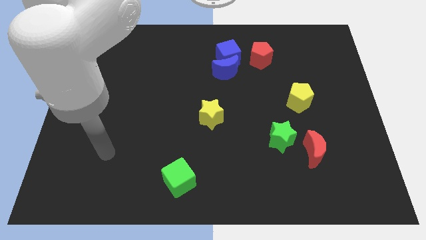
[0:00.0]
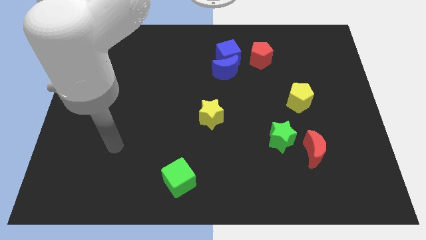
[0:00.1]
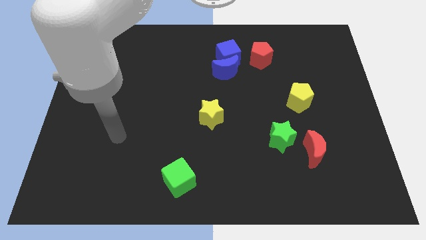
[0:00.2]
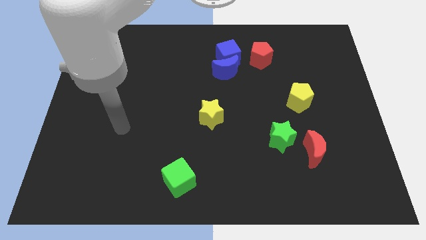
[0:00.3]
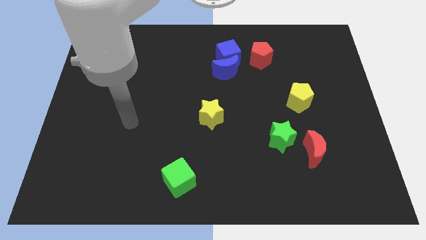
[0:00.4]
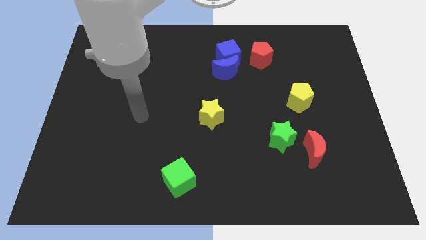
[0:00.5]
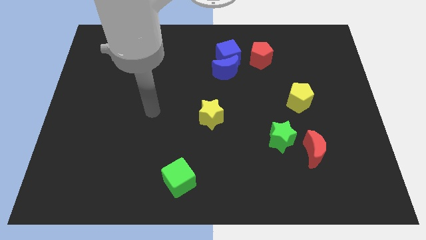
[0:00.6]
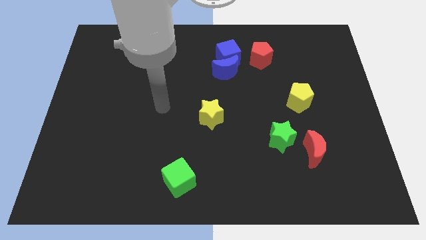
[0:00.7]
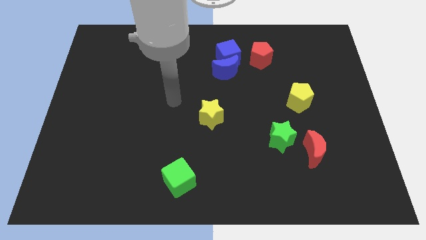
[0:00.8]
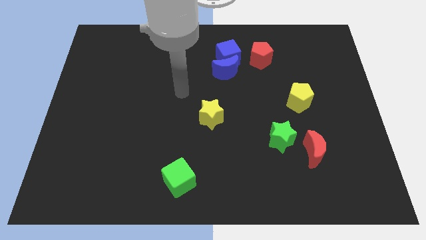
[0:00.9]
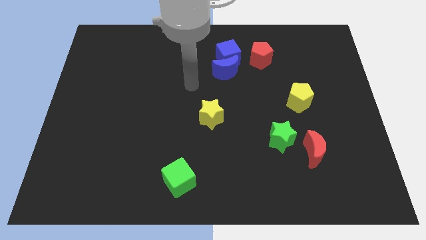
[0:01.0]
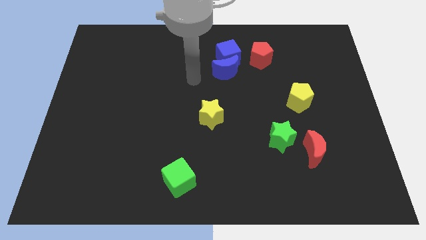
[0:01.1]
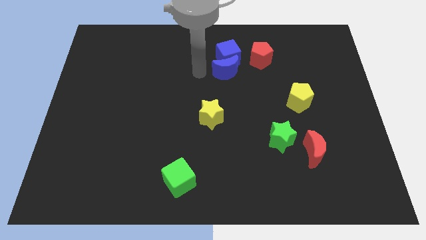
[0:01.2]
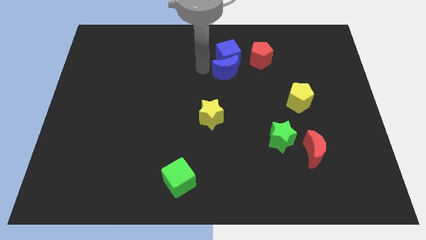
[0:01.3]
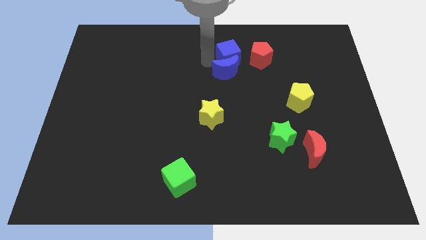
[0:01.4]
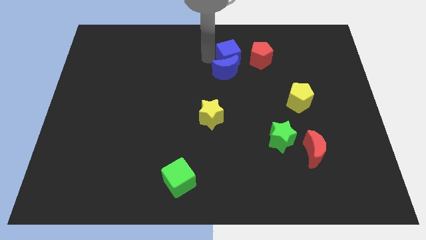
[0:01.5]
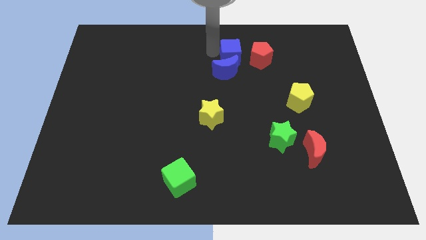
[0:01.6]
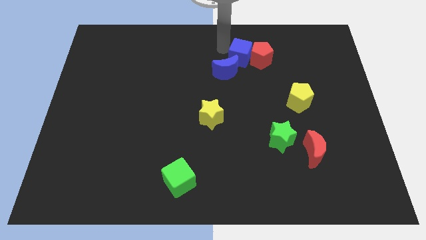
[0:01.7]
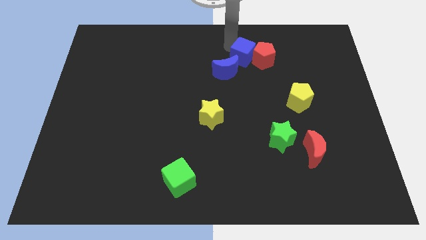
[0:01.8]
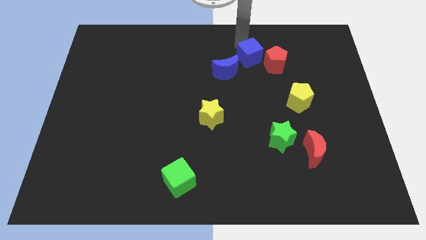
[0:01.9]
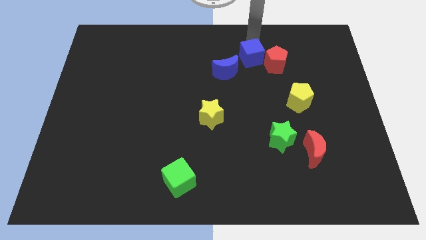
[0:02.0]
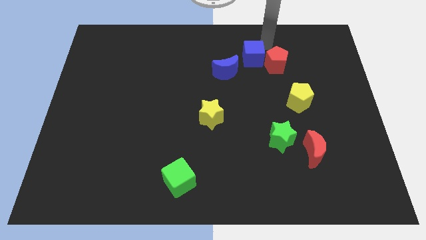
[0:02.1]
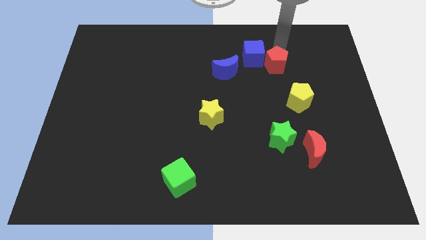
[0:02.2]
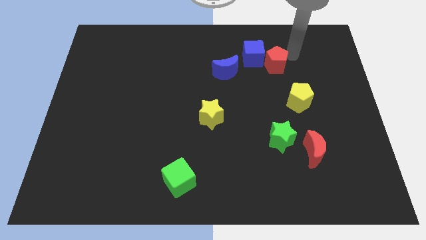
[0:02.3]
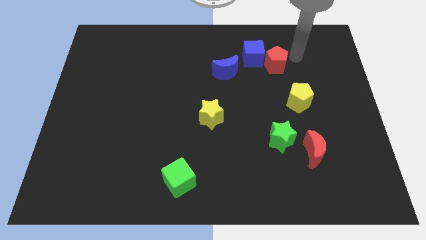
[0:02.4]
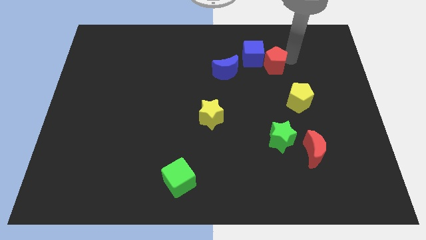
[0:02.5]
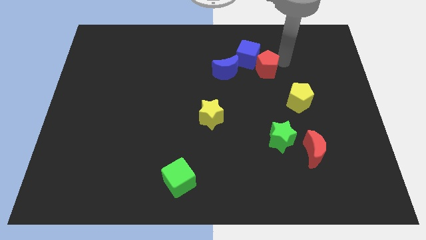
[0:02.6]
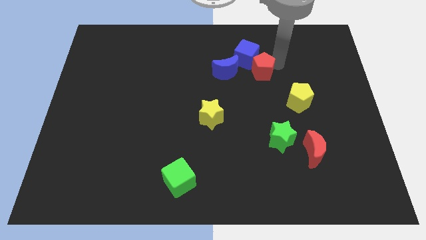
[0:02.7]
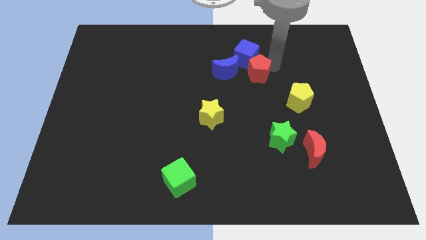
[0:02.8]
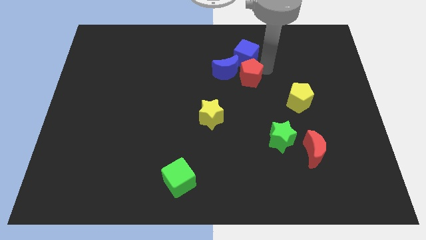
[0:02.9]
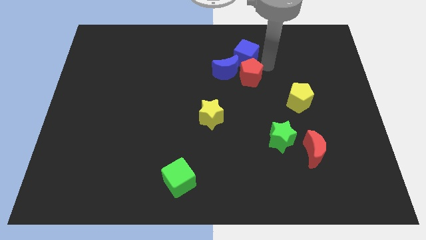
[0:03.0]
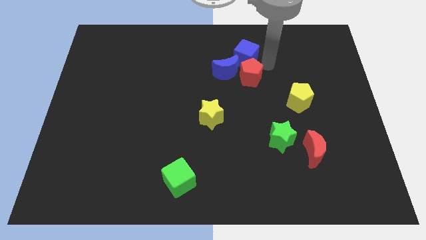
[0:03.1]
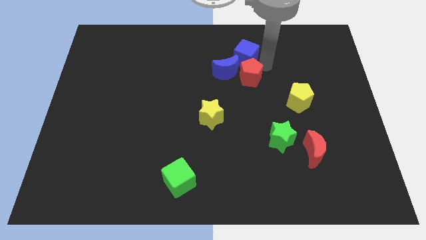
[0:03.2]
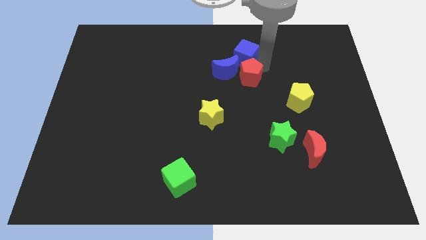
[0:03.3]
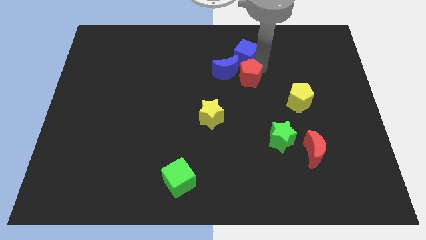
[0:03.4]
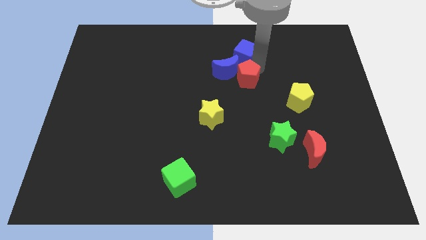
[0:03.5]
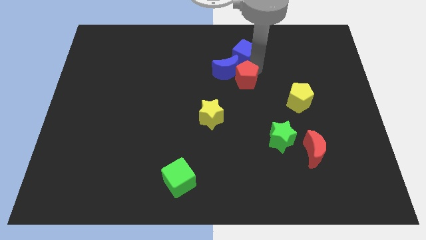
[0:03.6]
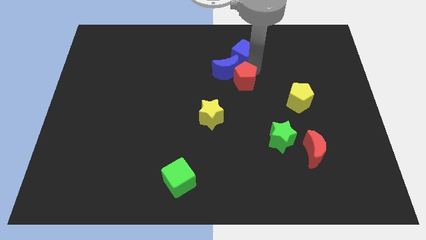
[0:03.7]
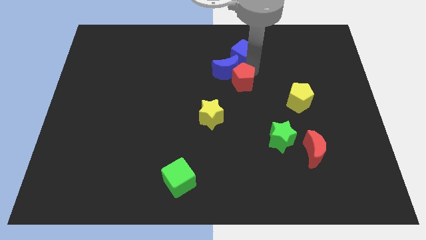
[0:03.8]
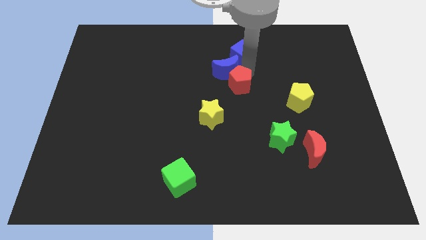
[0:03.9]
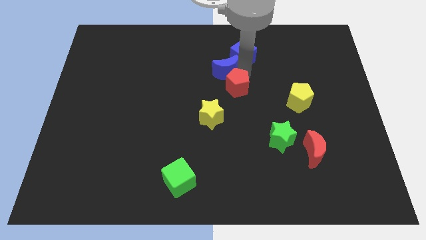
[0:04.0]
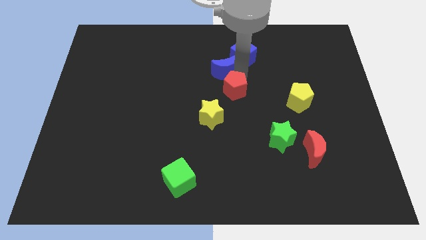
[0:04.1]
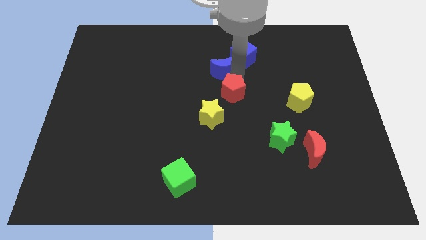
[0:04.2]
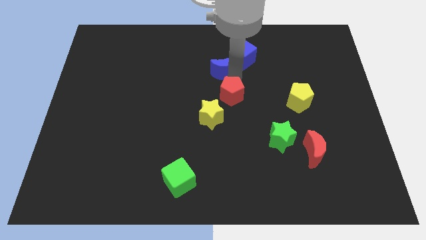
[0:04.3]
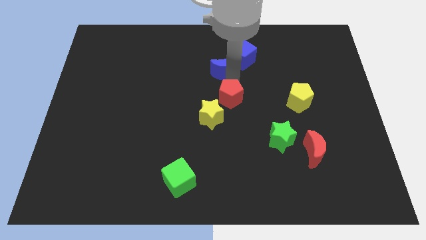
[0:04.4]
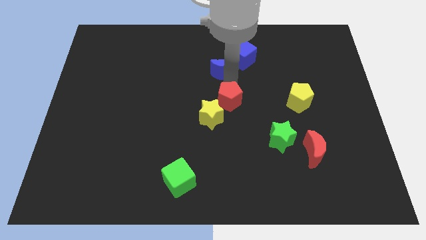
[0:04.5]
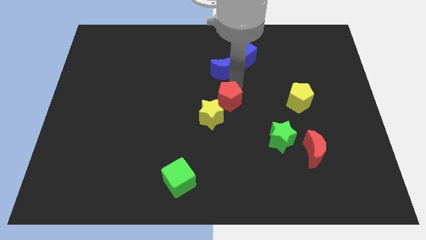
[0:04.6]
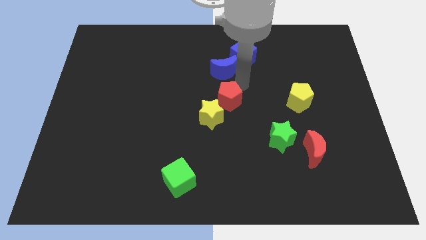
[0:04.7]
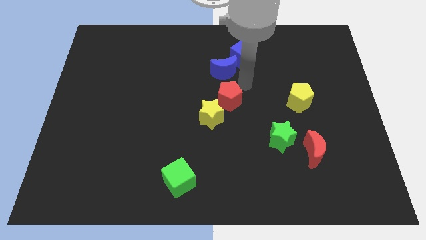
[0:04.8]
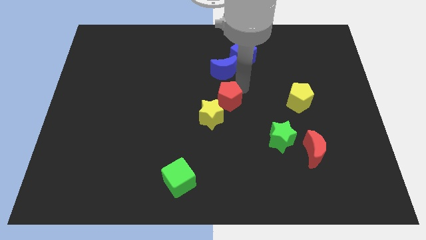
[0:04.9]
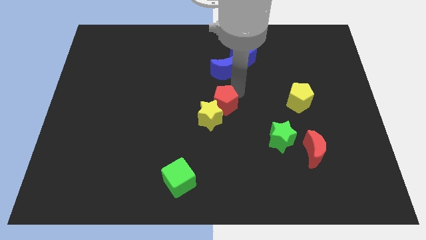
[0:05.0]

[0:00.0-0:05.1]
move the red pentagon close to the yellow star

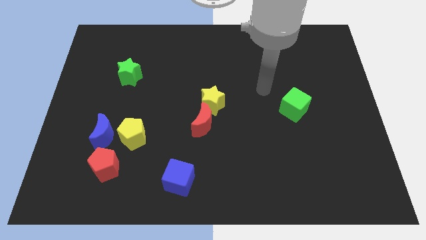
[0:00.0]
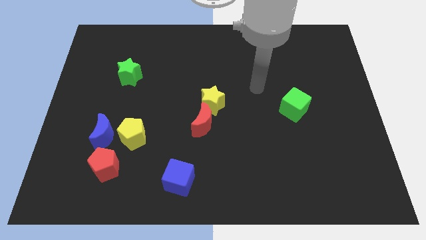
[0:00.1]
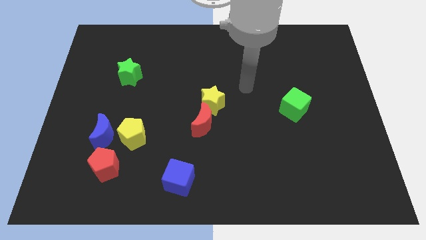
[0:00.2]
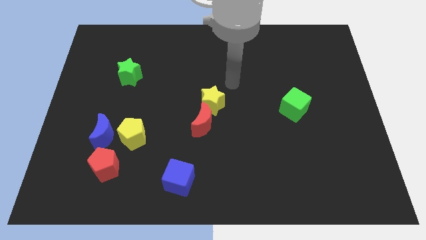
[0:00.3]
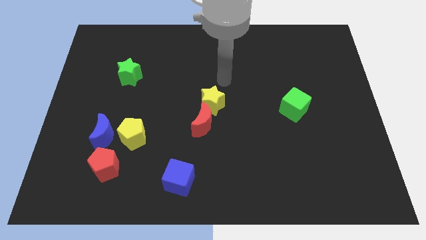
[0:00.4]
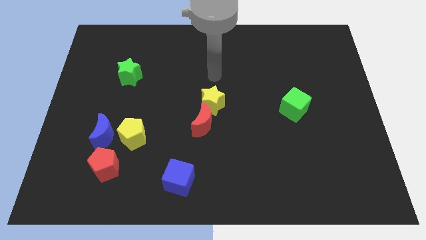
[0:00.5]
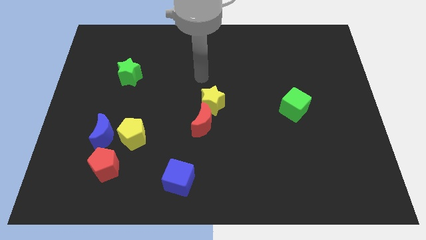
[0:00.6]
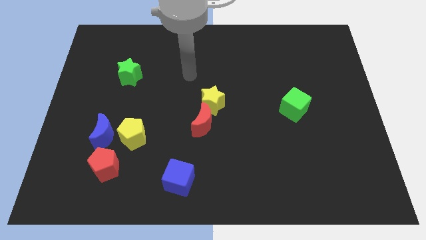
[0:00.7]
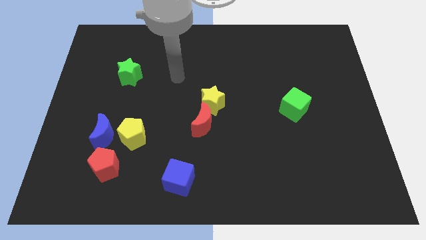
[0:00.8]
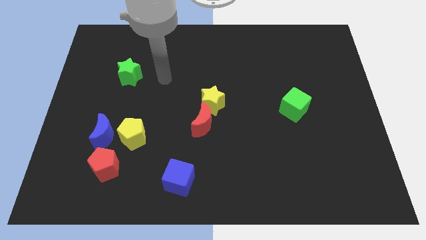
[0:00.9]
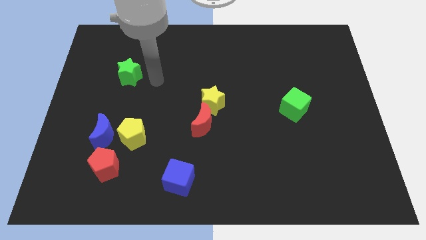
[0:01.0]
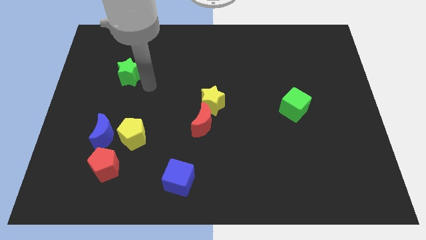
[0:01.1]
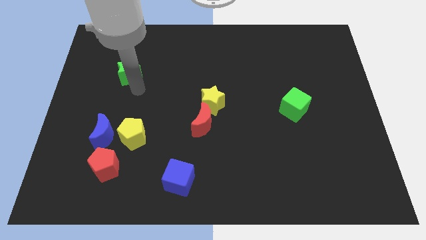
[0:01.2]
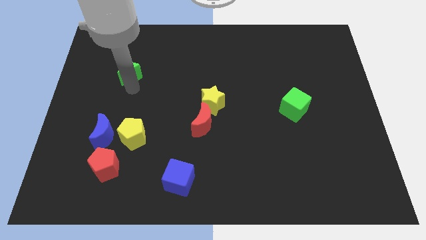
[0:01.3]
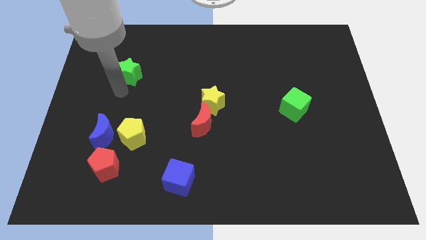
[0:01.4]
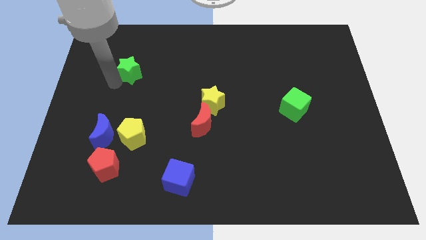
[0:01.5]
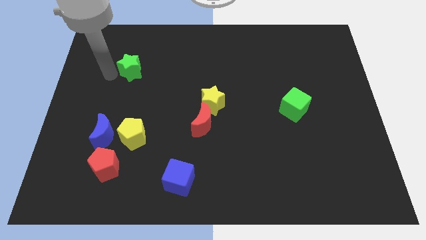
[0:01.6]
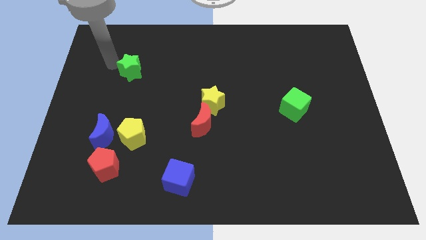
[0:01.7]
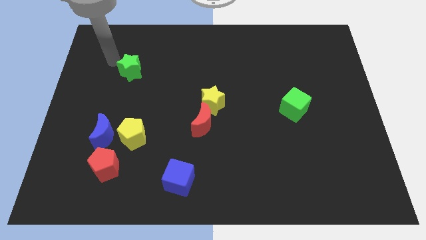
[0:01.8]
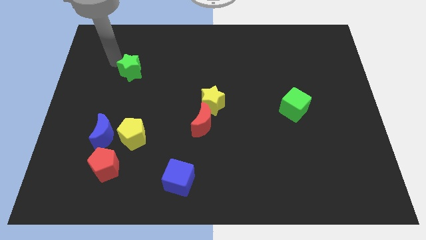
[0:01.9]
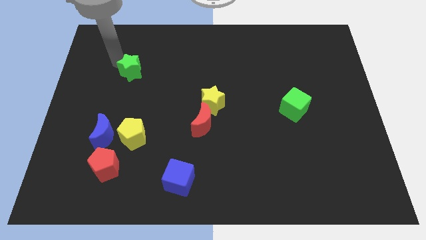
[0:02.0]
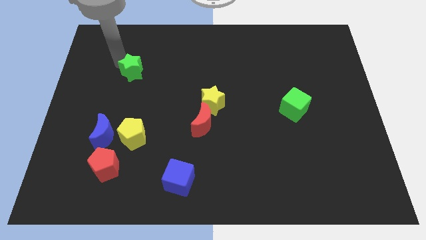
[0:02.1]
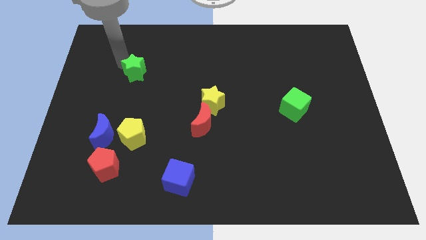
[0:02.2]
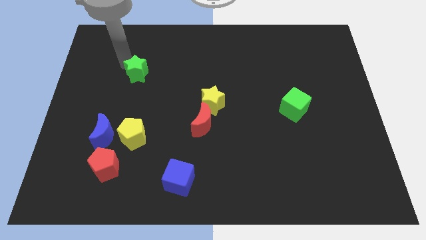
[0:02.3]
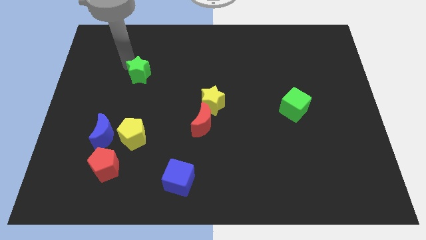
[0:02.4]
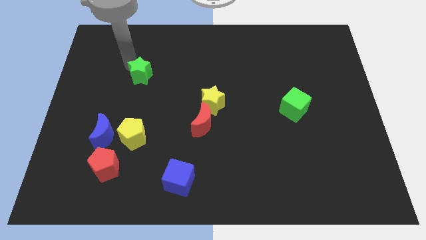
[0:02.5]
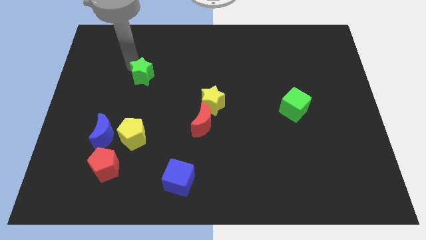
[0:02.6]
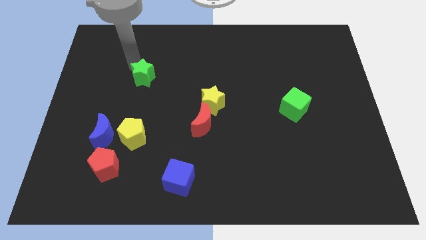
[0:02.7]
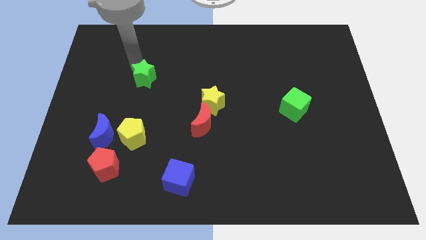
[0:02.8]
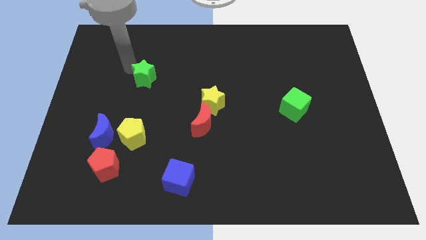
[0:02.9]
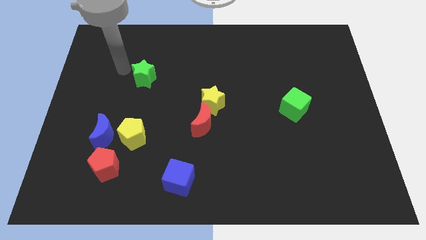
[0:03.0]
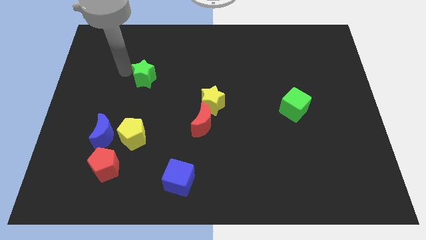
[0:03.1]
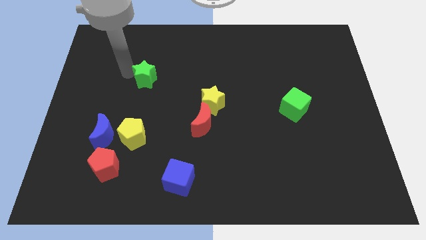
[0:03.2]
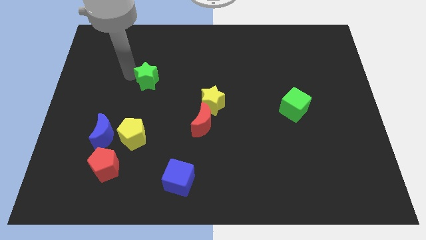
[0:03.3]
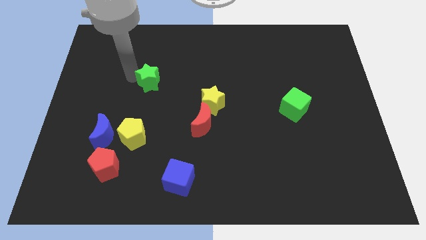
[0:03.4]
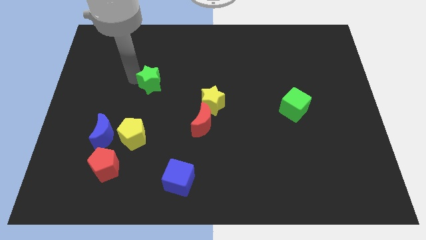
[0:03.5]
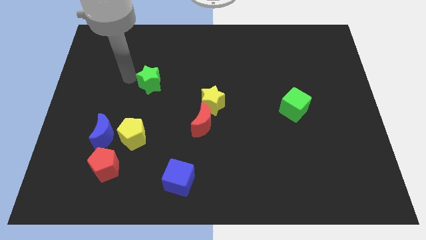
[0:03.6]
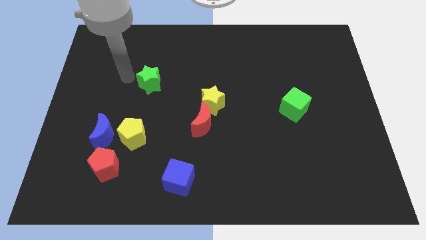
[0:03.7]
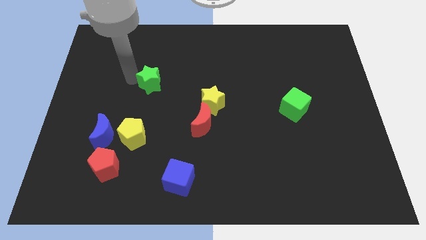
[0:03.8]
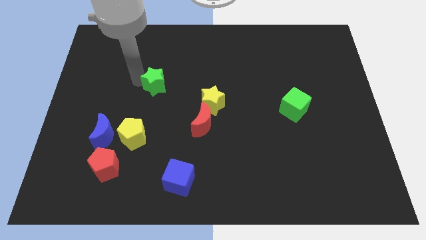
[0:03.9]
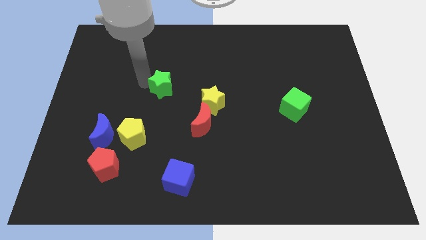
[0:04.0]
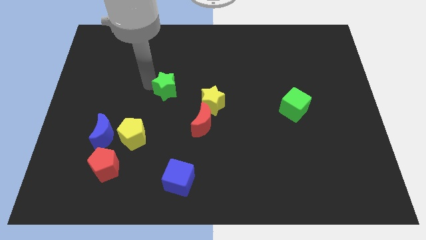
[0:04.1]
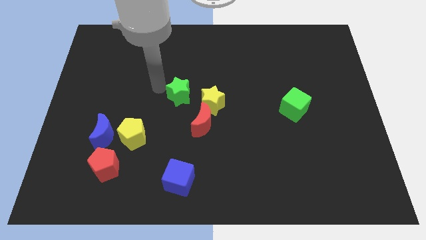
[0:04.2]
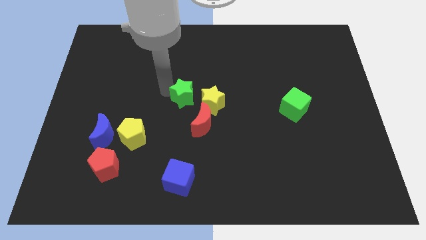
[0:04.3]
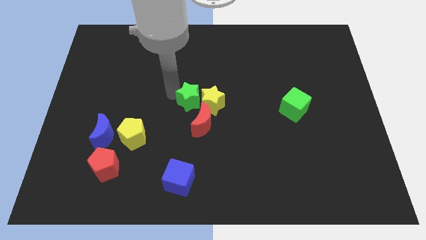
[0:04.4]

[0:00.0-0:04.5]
push the green star towards the yellow star
